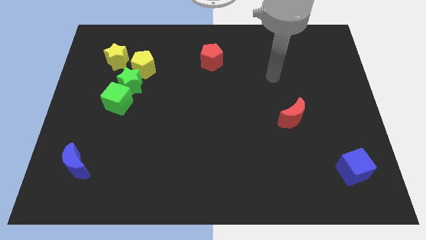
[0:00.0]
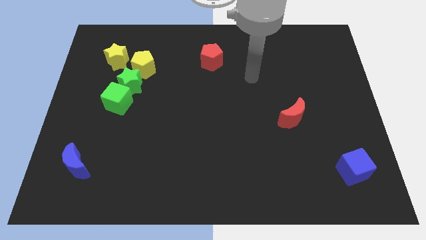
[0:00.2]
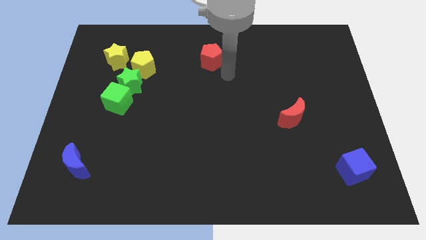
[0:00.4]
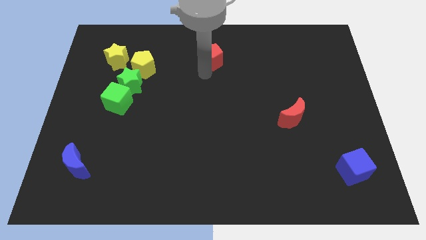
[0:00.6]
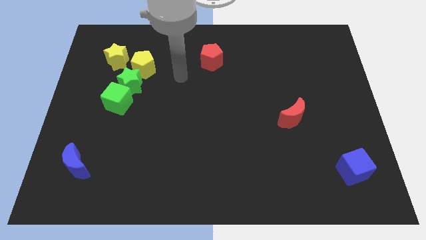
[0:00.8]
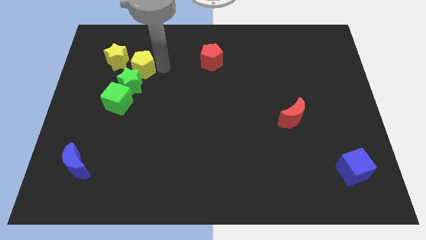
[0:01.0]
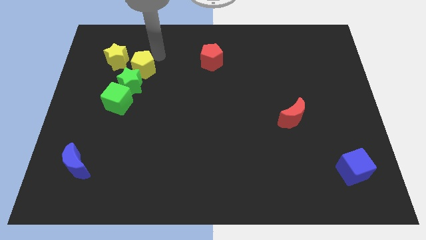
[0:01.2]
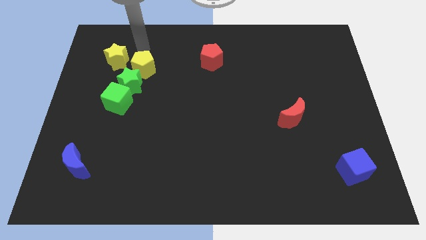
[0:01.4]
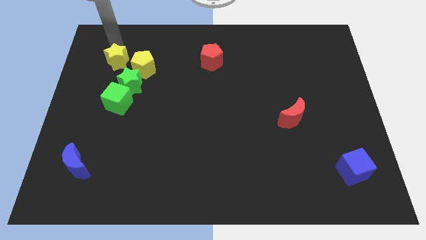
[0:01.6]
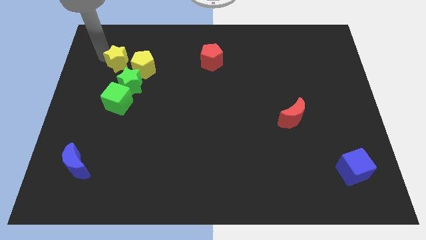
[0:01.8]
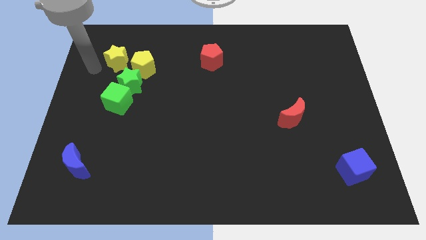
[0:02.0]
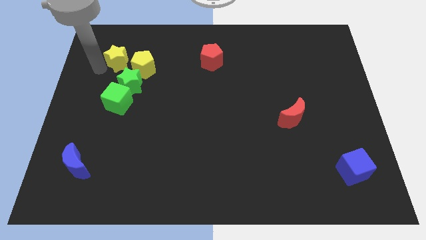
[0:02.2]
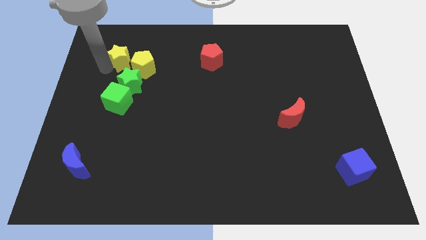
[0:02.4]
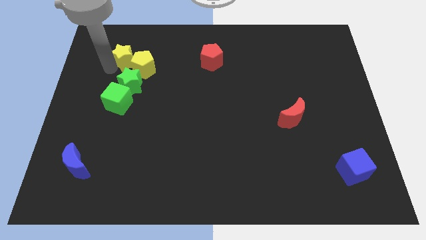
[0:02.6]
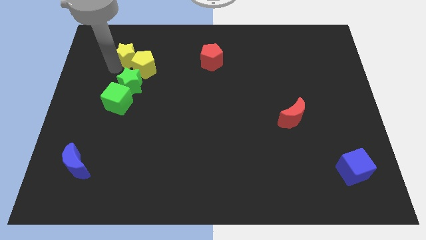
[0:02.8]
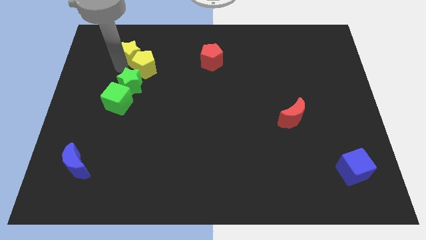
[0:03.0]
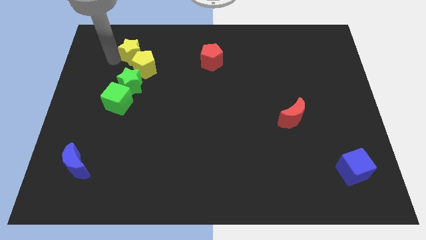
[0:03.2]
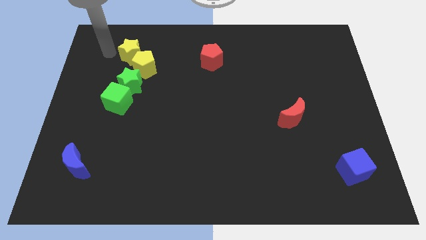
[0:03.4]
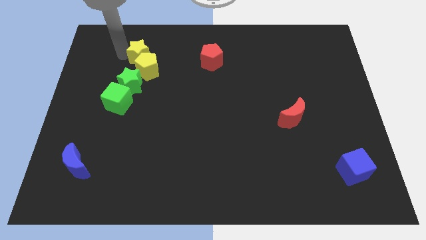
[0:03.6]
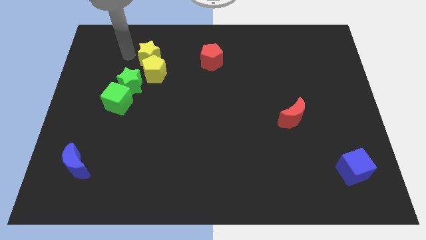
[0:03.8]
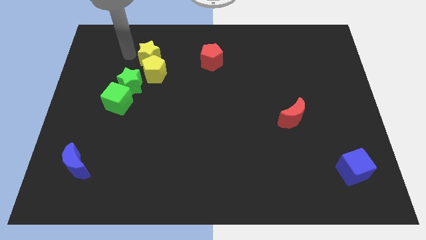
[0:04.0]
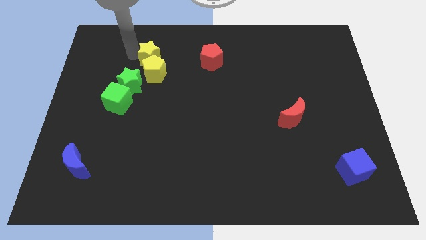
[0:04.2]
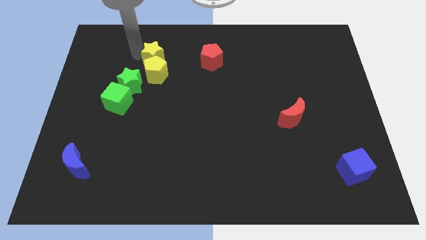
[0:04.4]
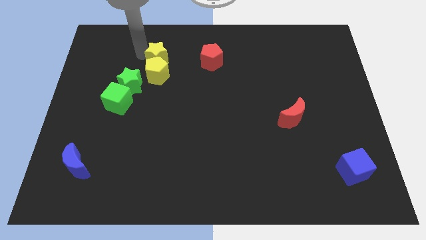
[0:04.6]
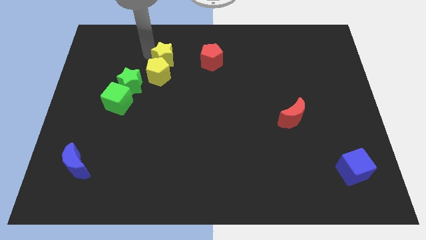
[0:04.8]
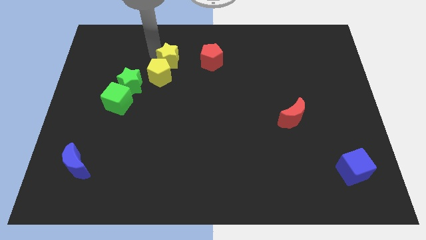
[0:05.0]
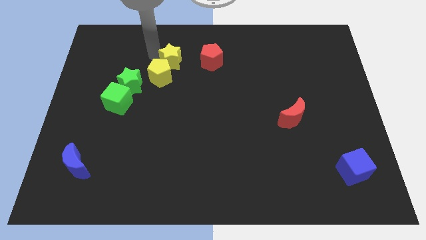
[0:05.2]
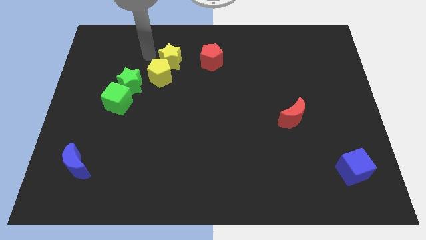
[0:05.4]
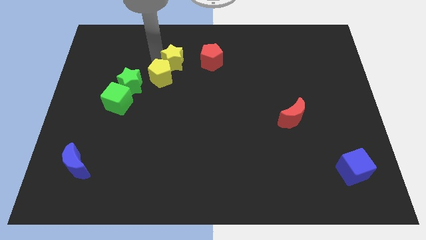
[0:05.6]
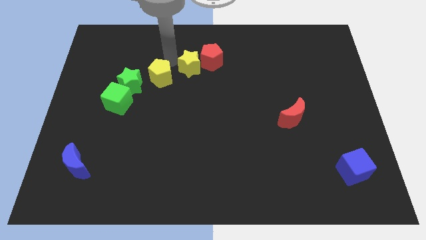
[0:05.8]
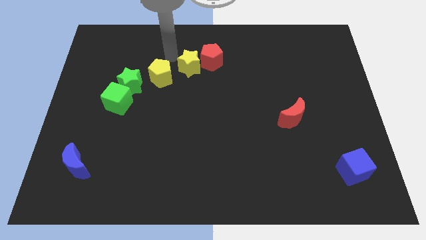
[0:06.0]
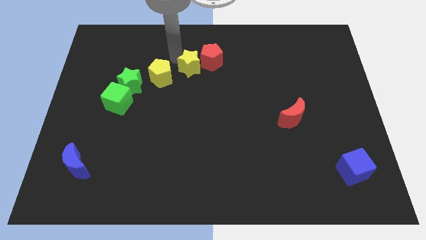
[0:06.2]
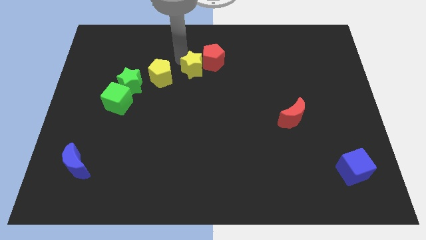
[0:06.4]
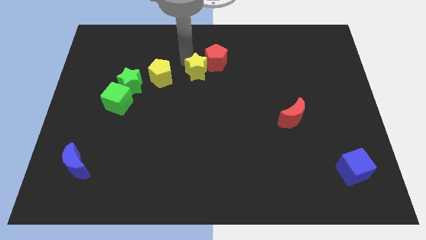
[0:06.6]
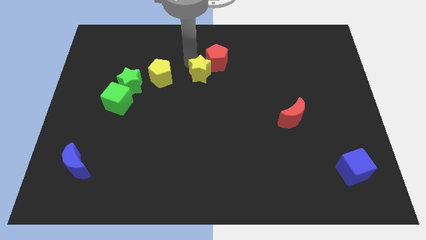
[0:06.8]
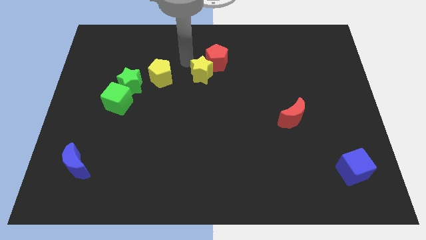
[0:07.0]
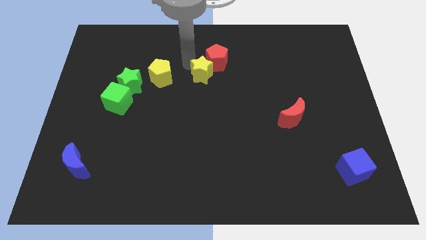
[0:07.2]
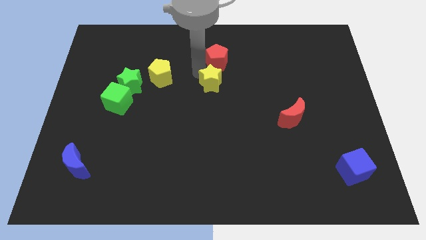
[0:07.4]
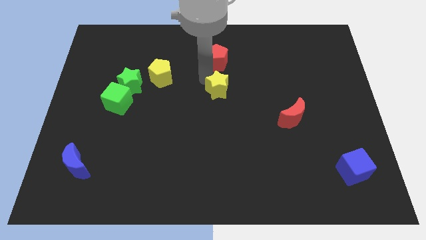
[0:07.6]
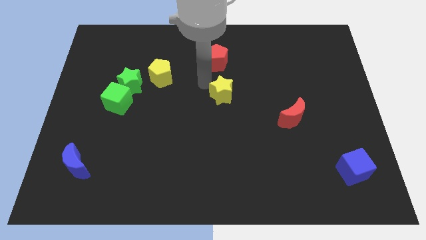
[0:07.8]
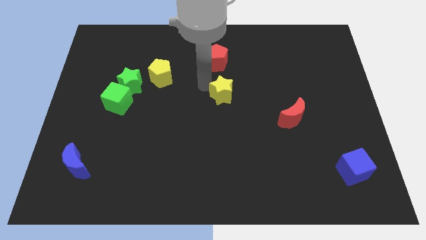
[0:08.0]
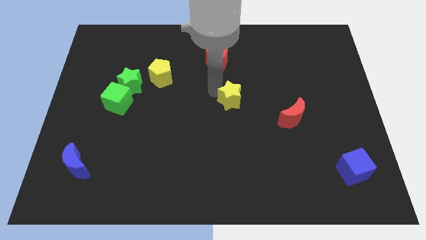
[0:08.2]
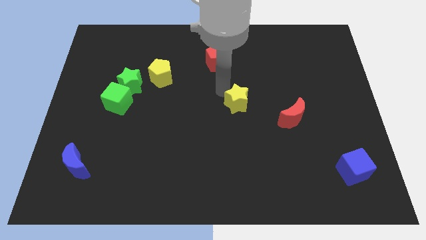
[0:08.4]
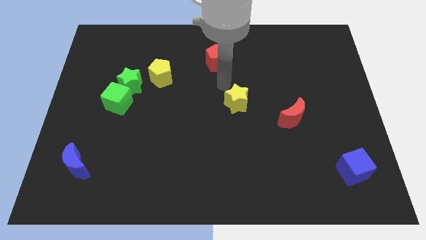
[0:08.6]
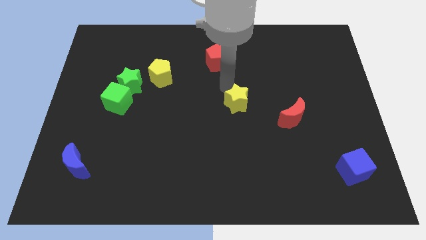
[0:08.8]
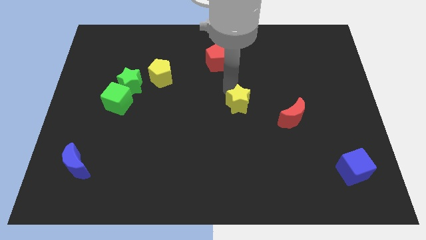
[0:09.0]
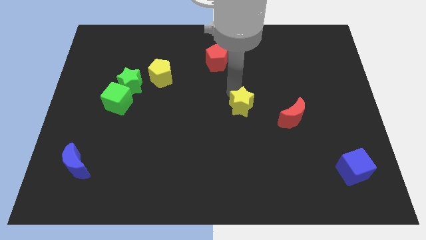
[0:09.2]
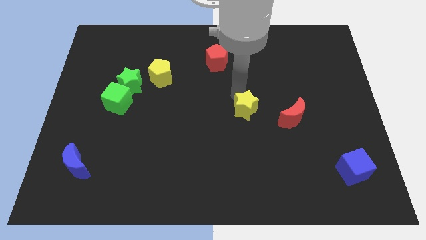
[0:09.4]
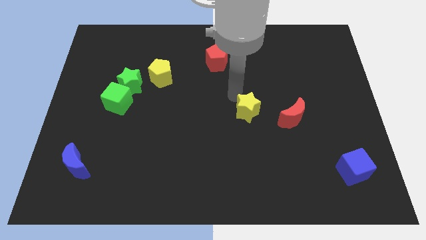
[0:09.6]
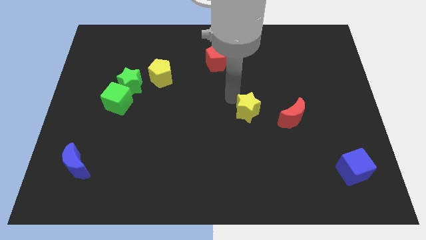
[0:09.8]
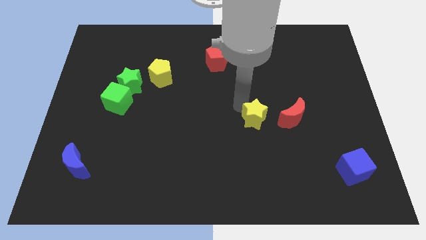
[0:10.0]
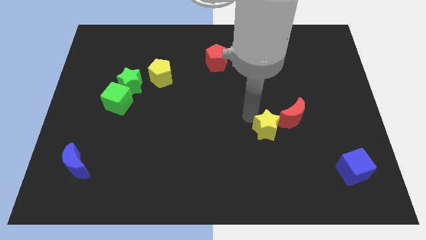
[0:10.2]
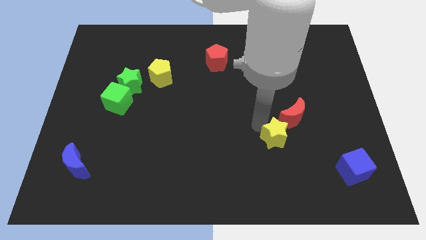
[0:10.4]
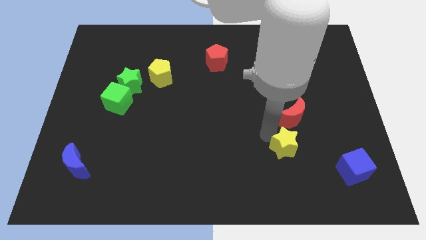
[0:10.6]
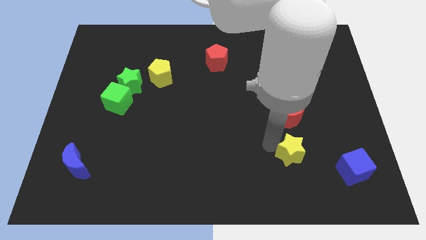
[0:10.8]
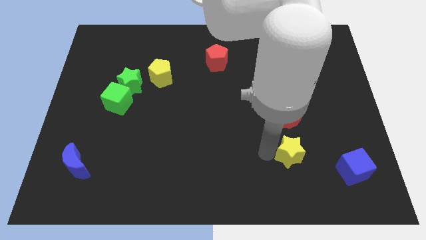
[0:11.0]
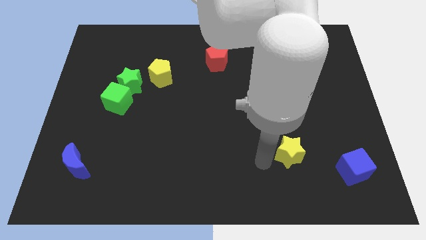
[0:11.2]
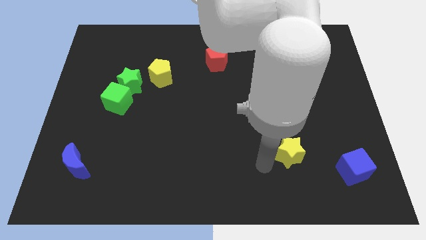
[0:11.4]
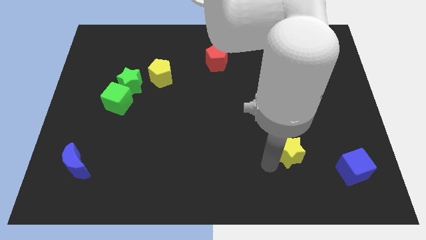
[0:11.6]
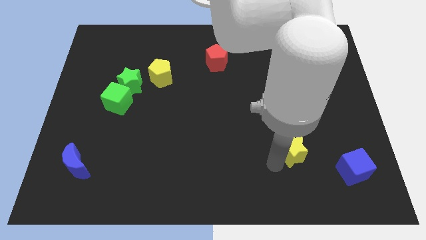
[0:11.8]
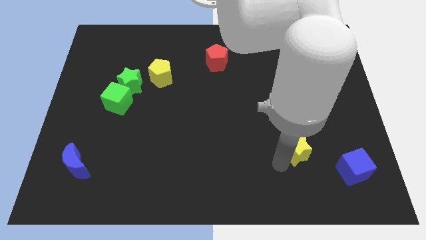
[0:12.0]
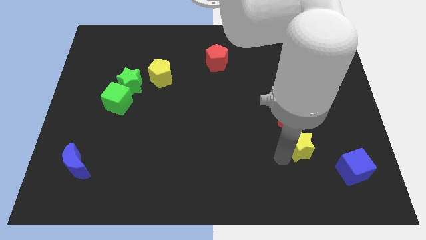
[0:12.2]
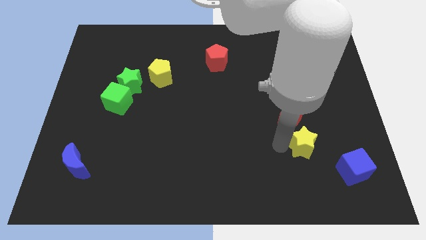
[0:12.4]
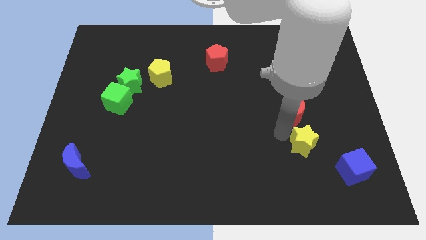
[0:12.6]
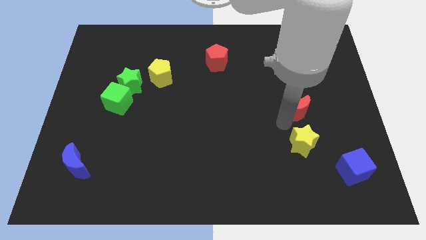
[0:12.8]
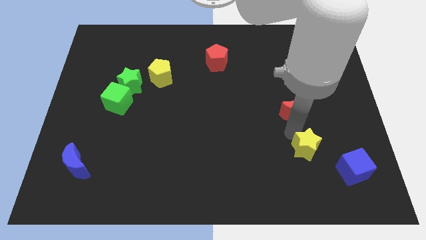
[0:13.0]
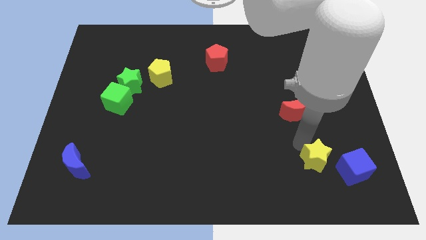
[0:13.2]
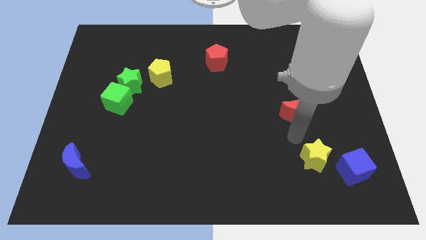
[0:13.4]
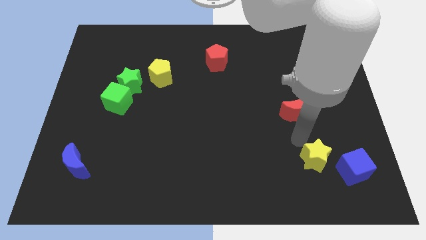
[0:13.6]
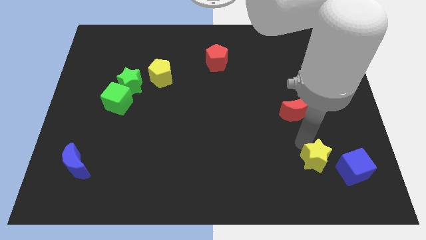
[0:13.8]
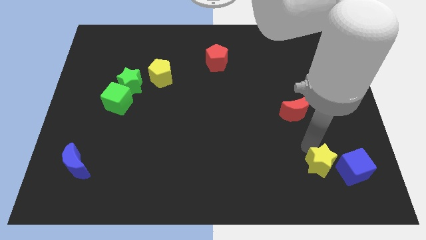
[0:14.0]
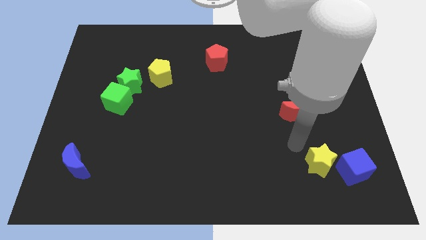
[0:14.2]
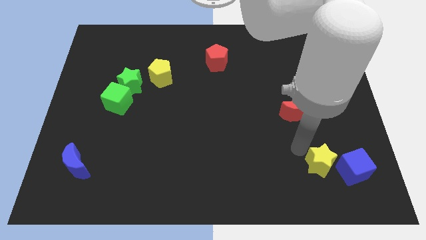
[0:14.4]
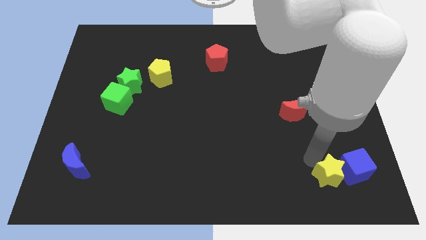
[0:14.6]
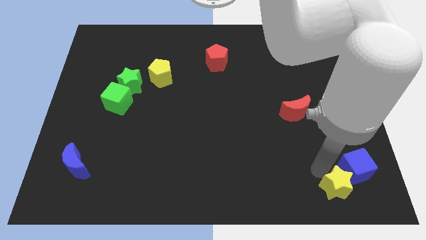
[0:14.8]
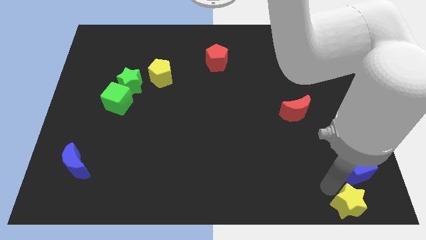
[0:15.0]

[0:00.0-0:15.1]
move the yellow star to the lower right corner

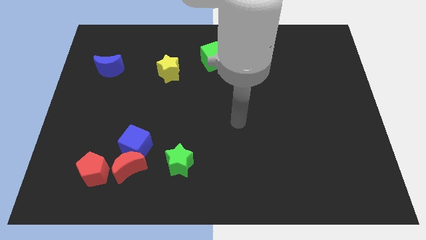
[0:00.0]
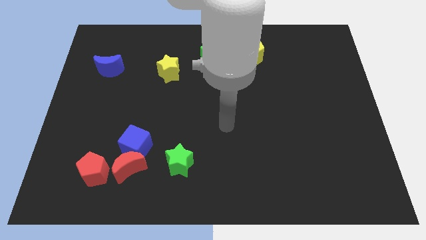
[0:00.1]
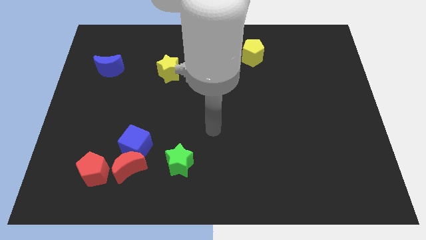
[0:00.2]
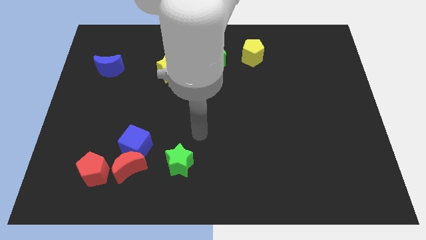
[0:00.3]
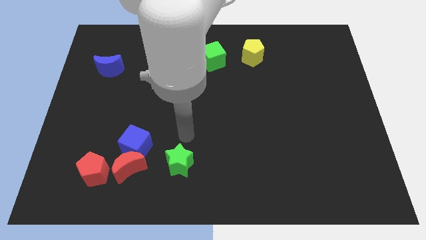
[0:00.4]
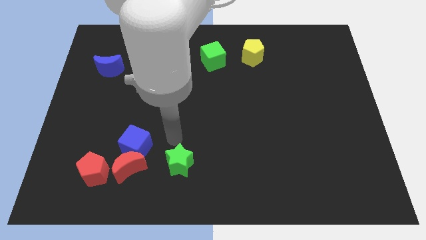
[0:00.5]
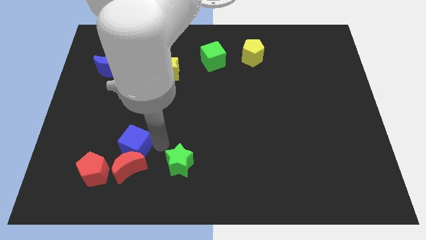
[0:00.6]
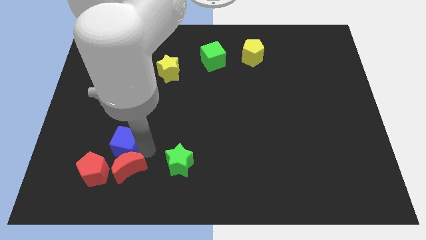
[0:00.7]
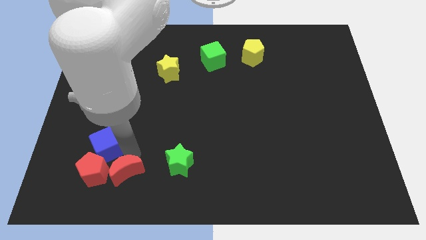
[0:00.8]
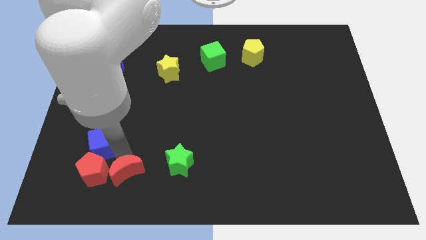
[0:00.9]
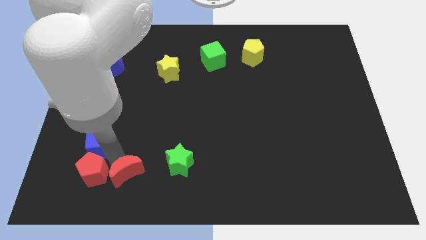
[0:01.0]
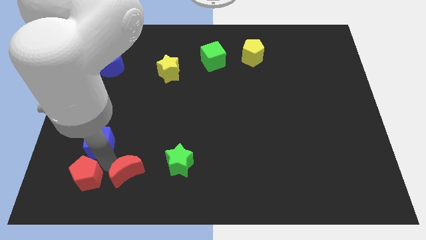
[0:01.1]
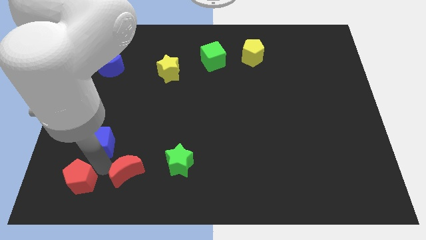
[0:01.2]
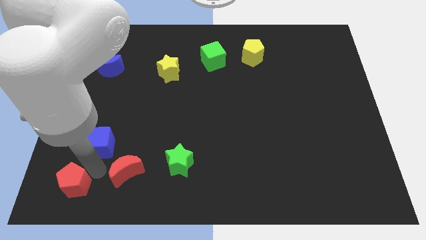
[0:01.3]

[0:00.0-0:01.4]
put the red pentagon to the lower left corner
